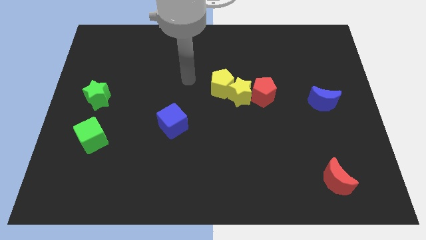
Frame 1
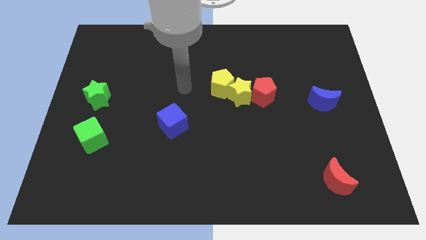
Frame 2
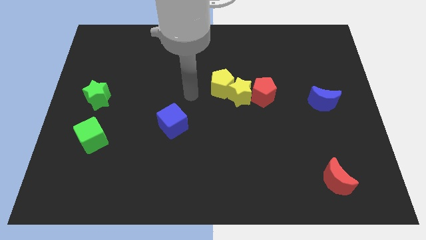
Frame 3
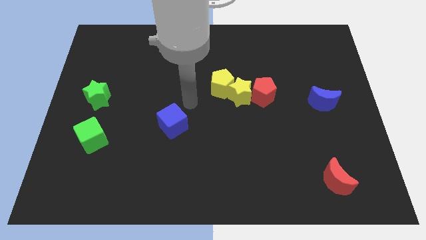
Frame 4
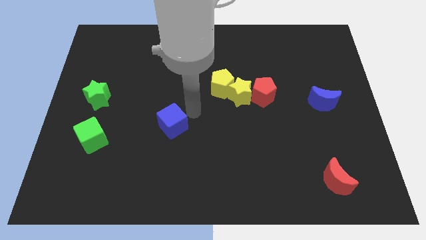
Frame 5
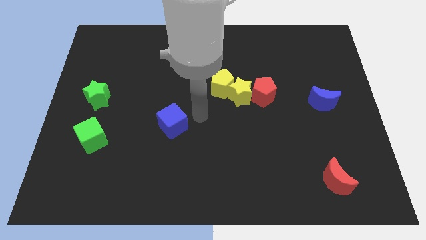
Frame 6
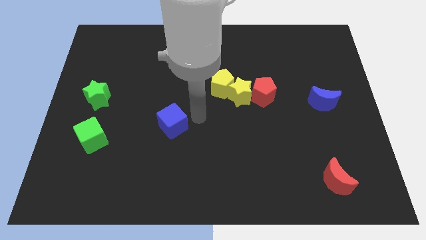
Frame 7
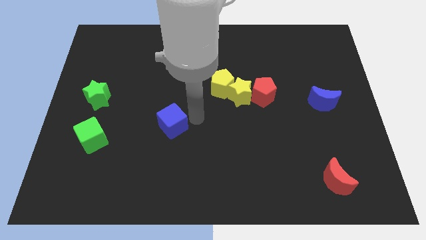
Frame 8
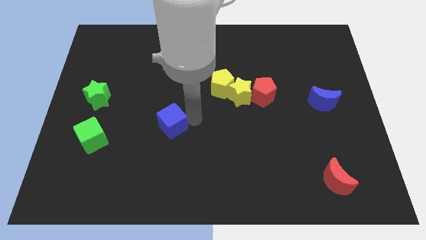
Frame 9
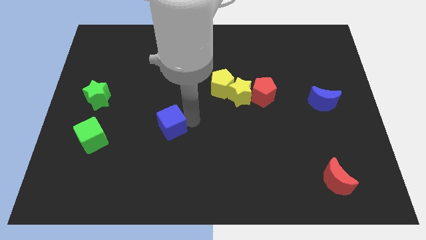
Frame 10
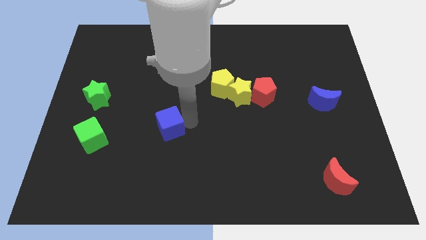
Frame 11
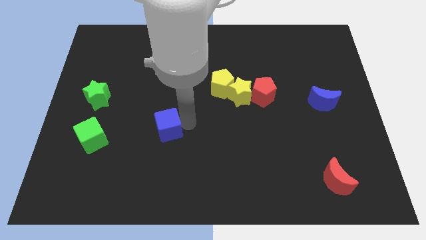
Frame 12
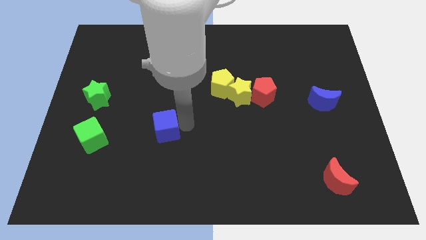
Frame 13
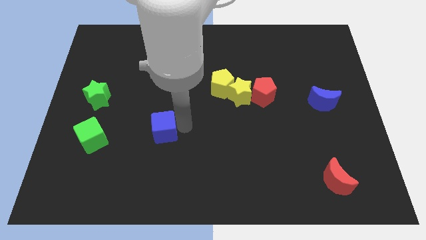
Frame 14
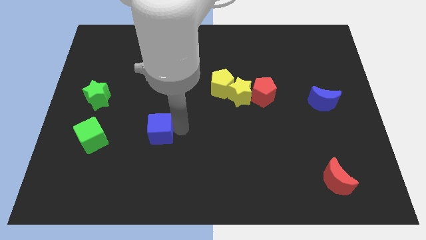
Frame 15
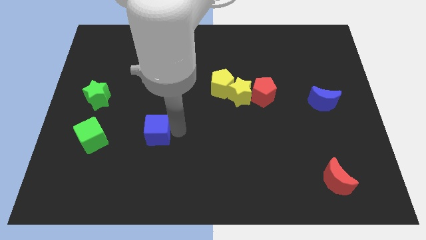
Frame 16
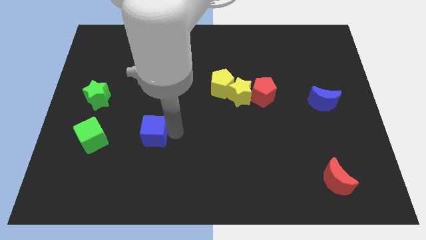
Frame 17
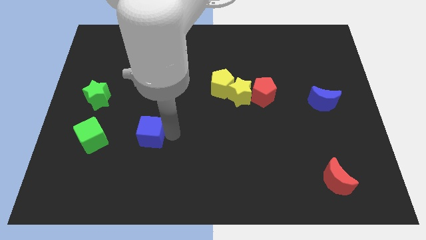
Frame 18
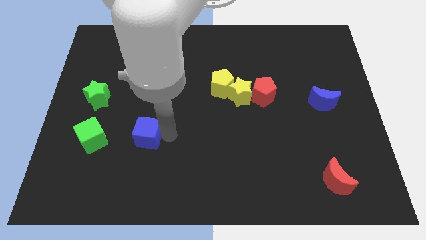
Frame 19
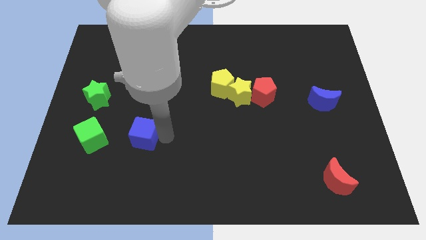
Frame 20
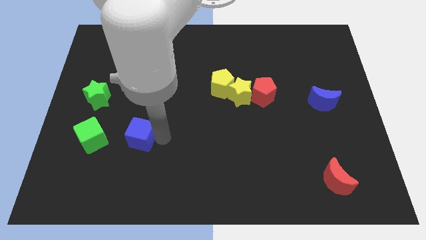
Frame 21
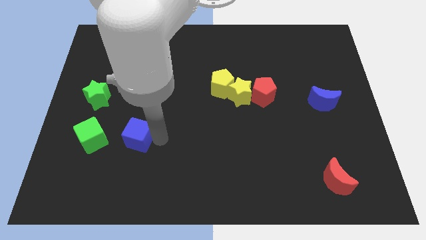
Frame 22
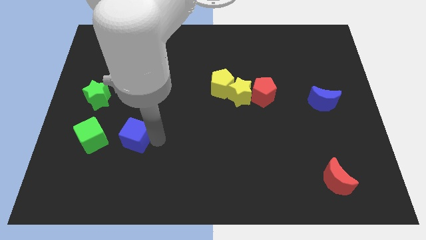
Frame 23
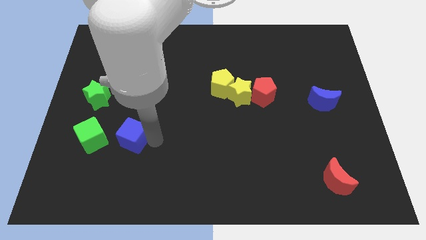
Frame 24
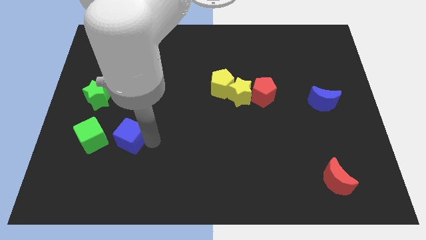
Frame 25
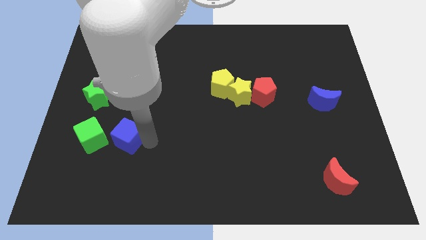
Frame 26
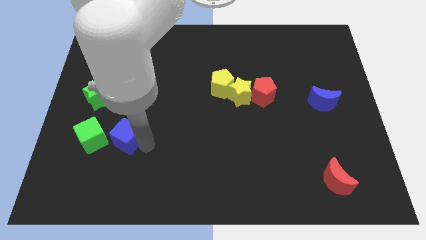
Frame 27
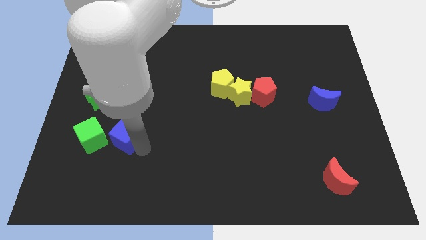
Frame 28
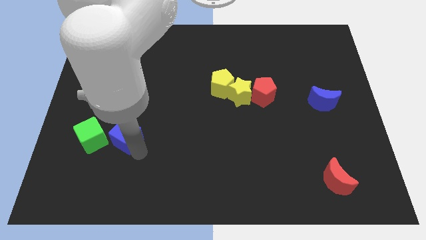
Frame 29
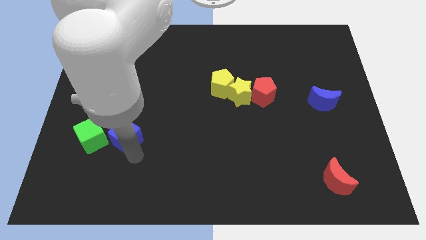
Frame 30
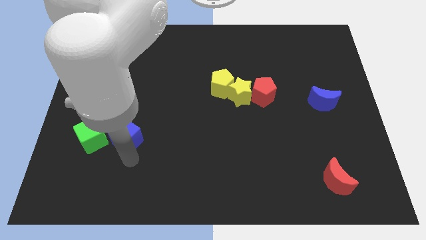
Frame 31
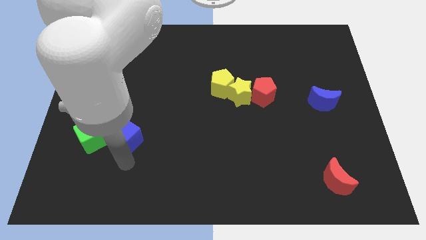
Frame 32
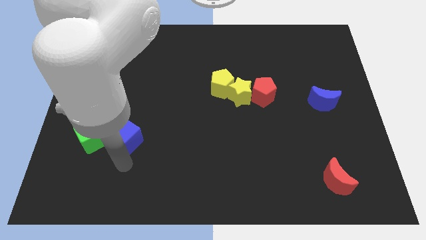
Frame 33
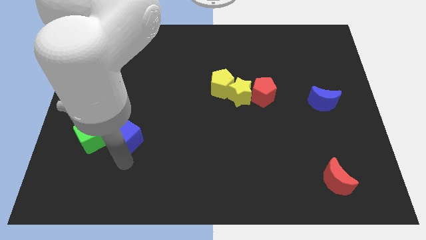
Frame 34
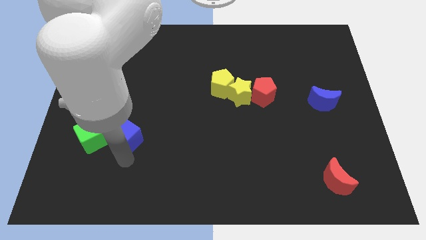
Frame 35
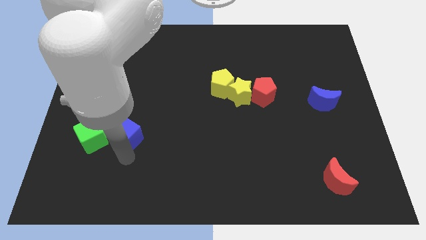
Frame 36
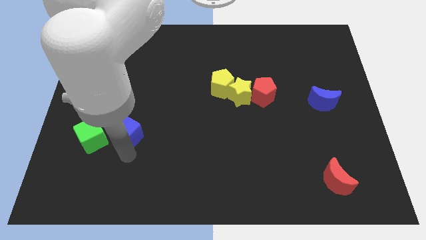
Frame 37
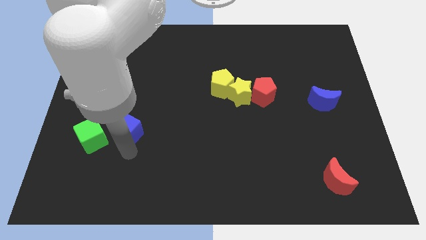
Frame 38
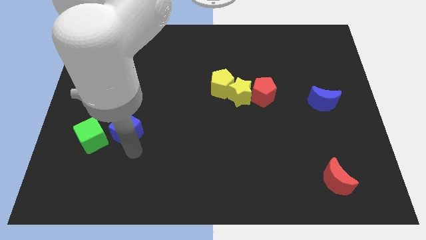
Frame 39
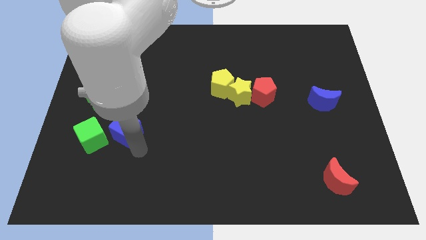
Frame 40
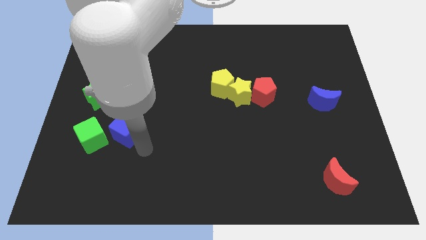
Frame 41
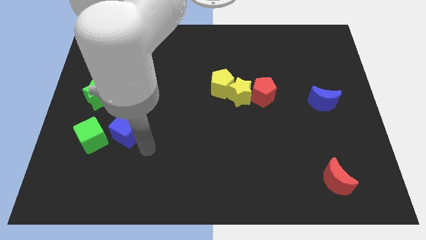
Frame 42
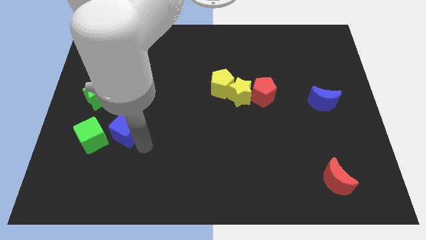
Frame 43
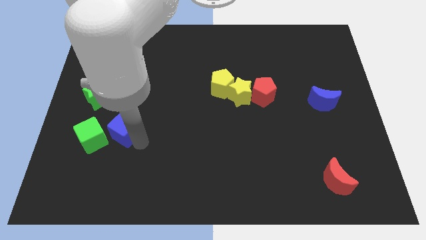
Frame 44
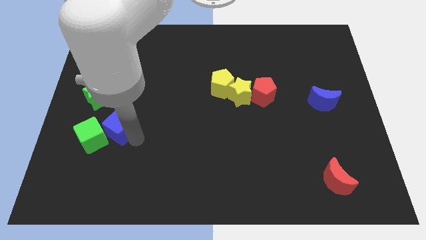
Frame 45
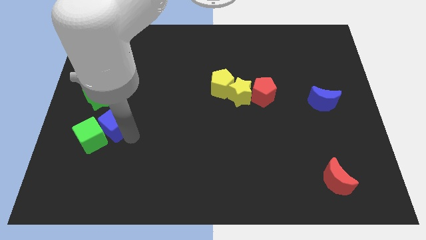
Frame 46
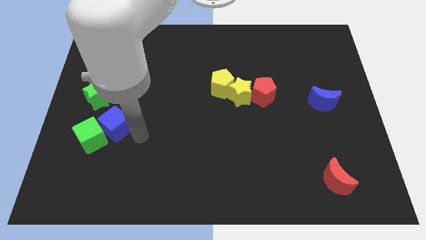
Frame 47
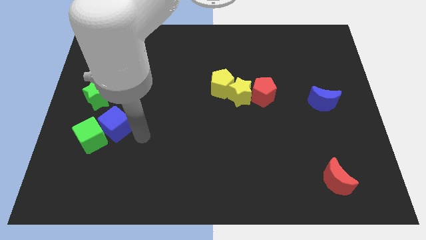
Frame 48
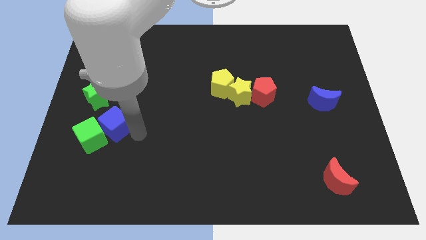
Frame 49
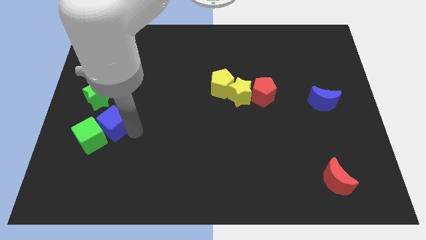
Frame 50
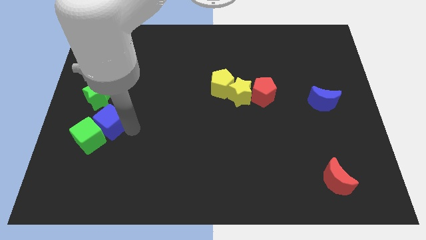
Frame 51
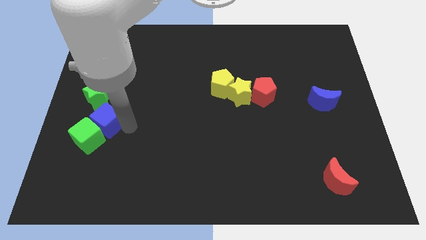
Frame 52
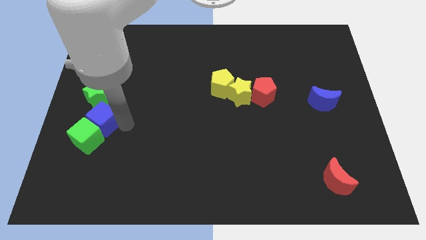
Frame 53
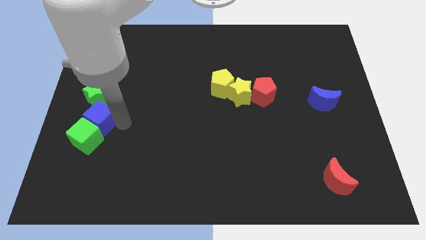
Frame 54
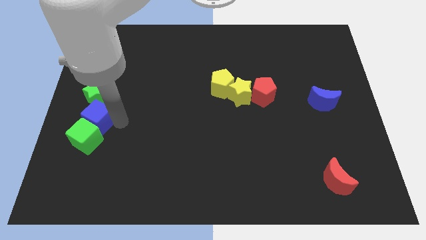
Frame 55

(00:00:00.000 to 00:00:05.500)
push the blue cube to the center left
